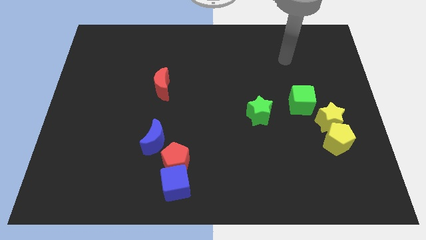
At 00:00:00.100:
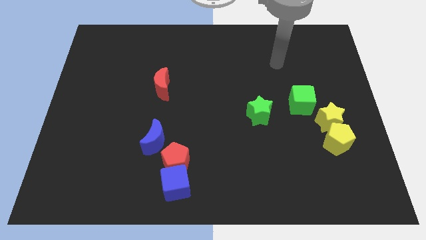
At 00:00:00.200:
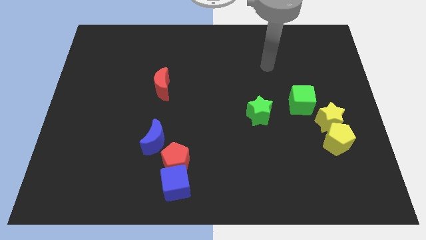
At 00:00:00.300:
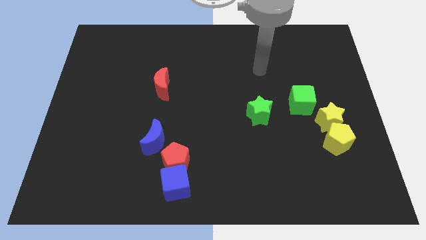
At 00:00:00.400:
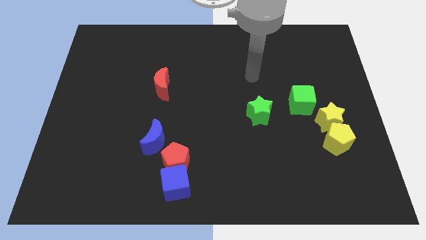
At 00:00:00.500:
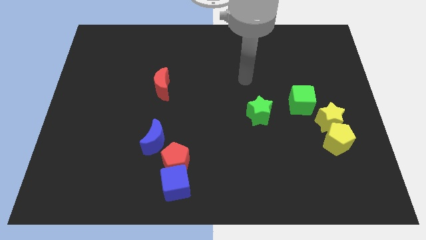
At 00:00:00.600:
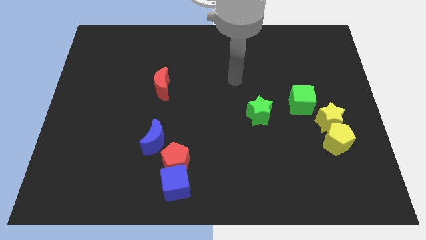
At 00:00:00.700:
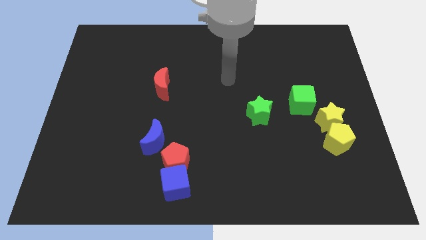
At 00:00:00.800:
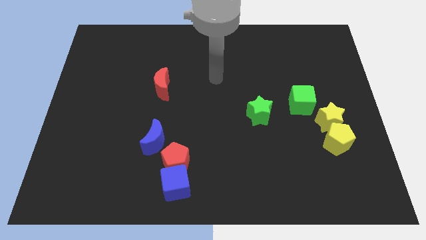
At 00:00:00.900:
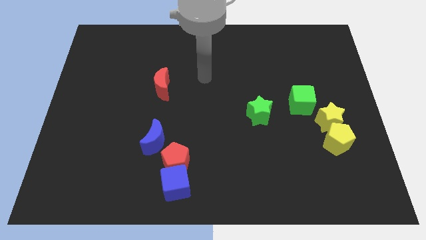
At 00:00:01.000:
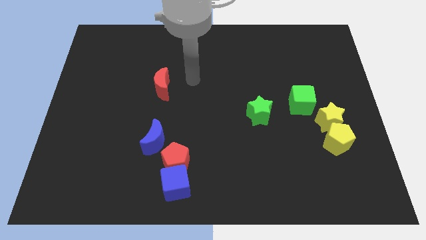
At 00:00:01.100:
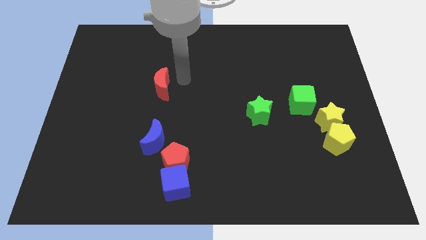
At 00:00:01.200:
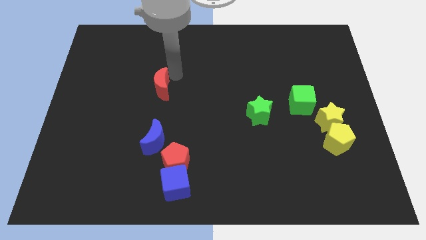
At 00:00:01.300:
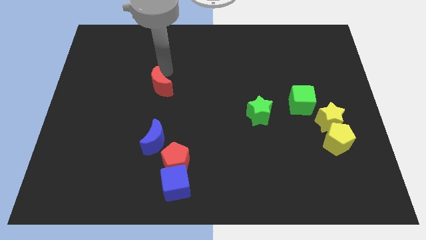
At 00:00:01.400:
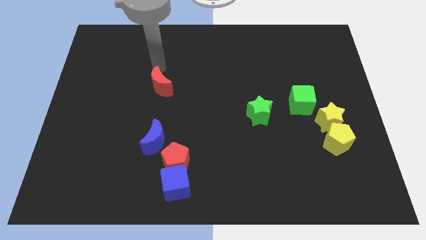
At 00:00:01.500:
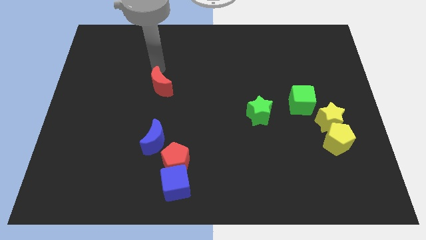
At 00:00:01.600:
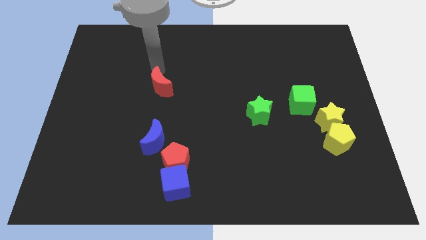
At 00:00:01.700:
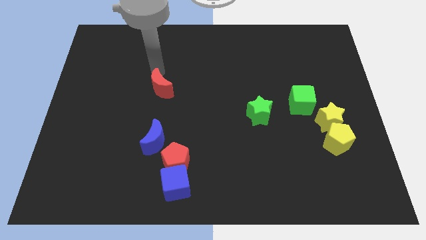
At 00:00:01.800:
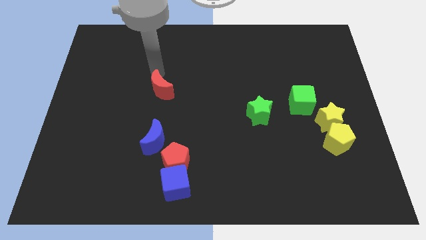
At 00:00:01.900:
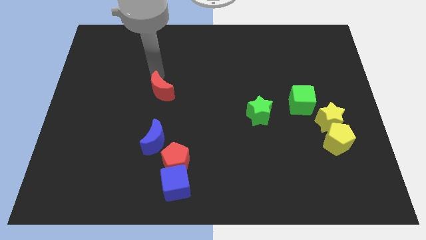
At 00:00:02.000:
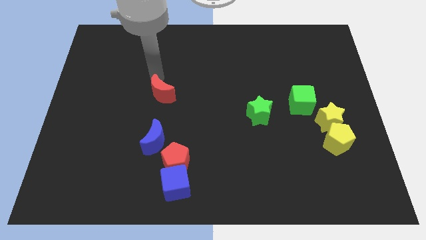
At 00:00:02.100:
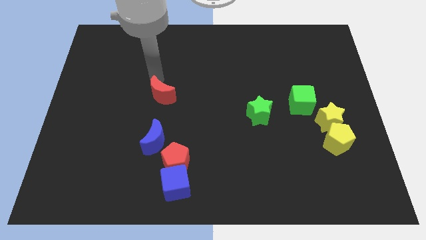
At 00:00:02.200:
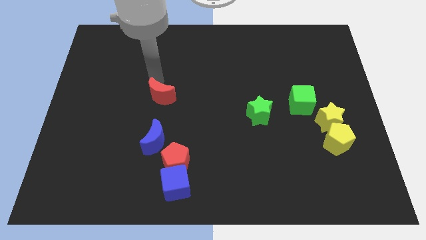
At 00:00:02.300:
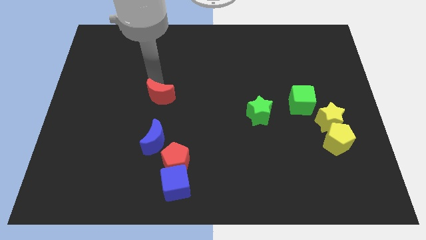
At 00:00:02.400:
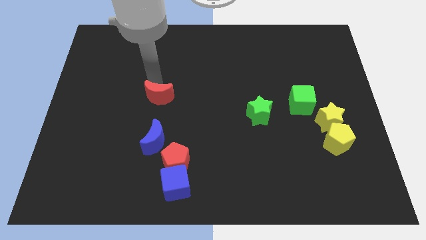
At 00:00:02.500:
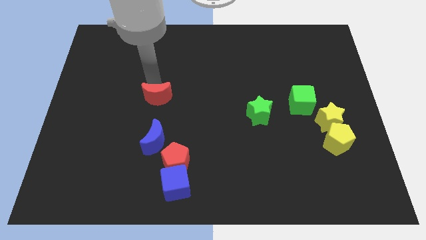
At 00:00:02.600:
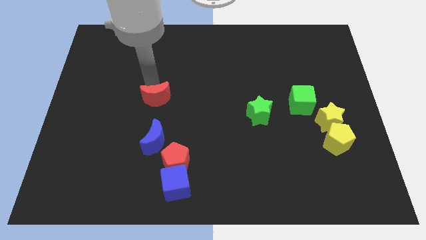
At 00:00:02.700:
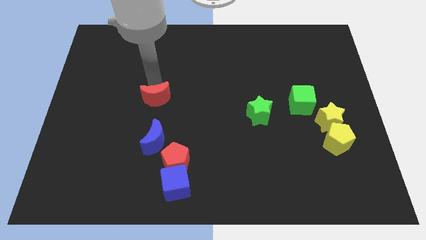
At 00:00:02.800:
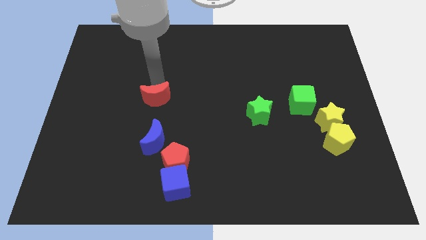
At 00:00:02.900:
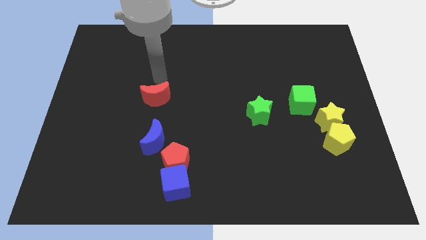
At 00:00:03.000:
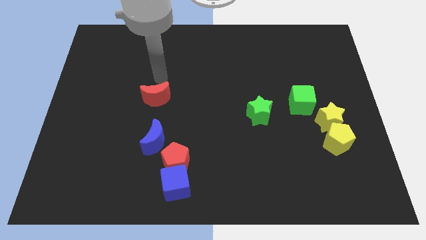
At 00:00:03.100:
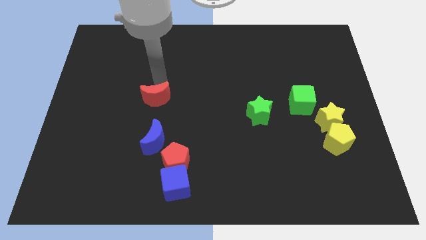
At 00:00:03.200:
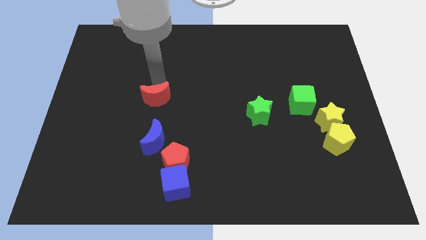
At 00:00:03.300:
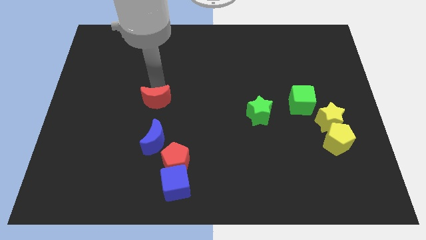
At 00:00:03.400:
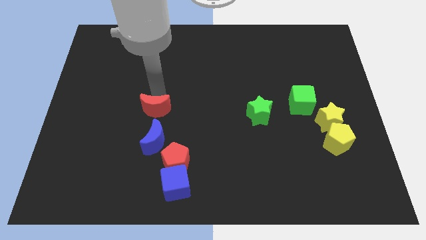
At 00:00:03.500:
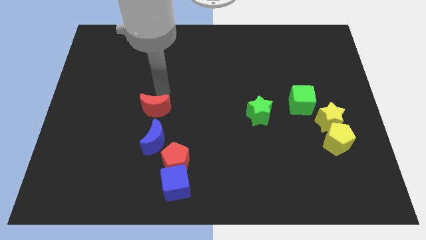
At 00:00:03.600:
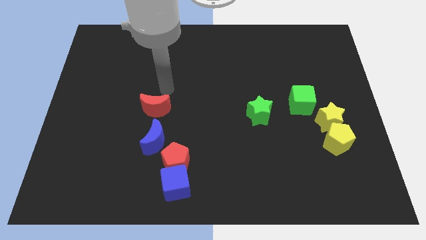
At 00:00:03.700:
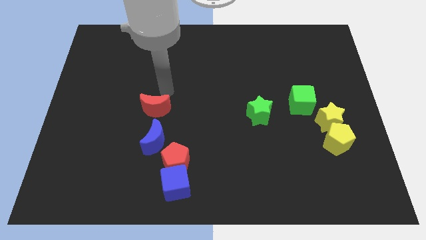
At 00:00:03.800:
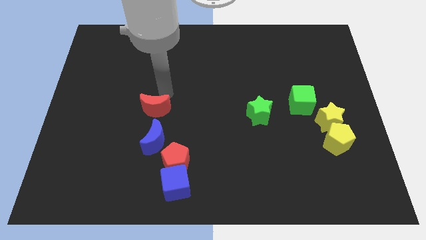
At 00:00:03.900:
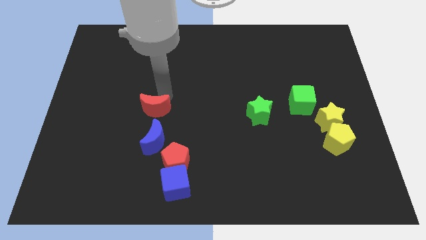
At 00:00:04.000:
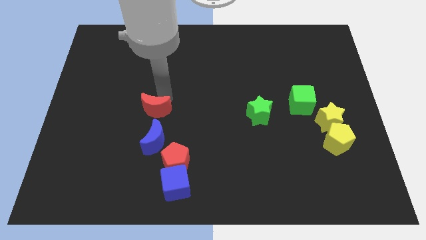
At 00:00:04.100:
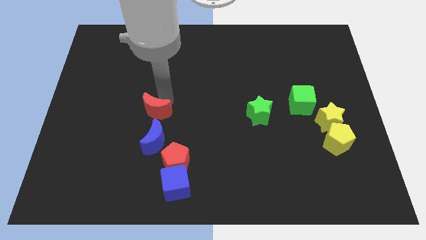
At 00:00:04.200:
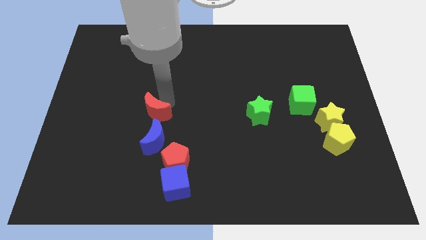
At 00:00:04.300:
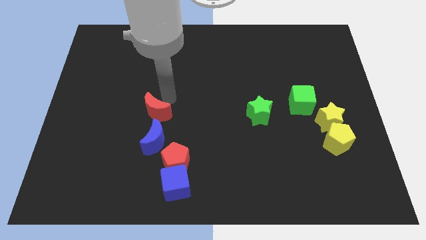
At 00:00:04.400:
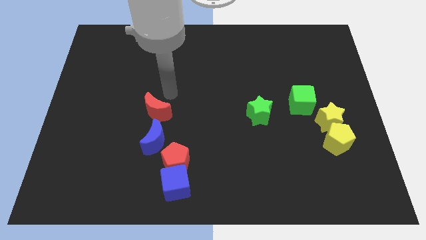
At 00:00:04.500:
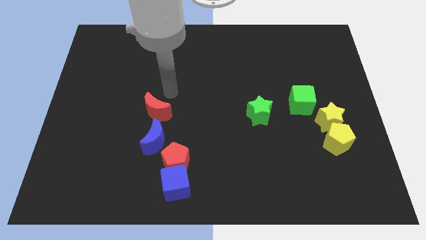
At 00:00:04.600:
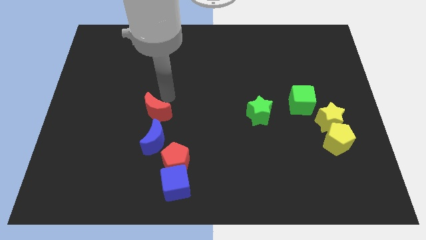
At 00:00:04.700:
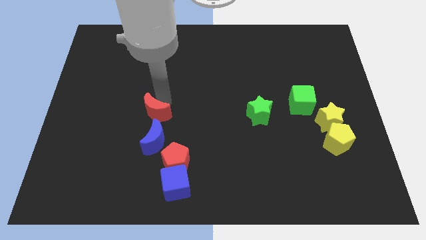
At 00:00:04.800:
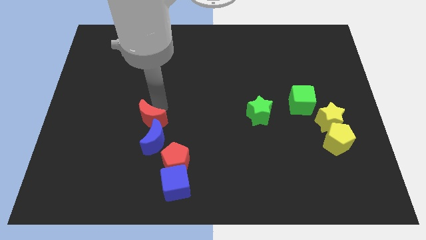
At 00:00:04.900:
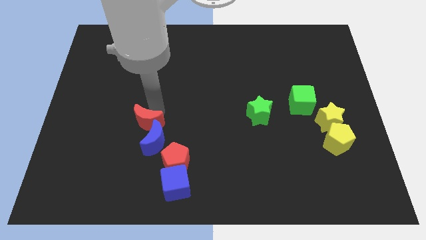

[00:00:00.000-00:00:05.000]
push the red moon to the top left side of the red pentagon

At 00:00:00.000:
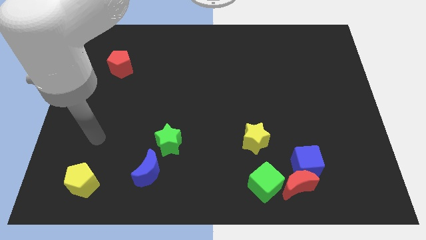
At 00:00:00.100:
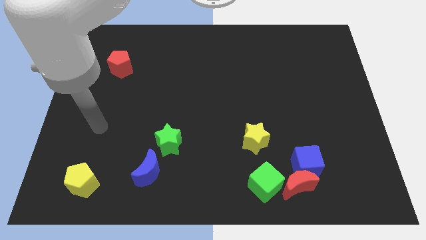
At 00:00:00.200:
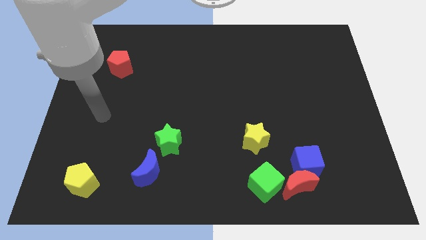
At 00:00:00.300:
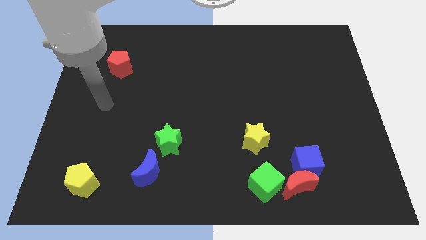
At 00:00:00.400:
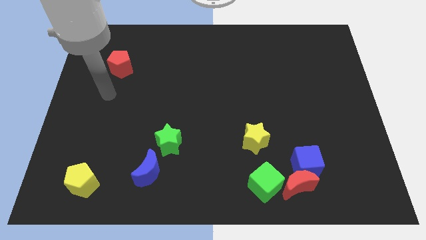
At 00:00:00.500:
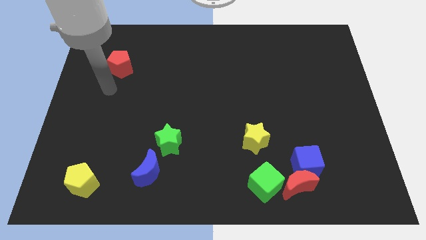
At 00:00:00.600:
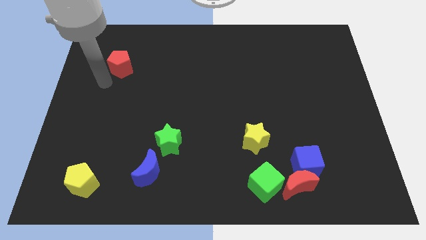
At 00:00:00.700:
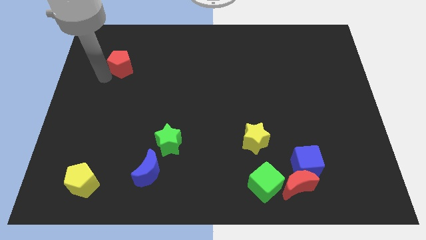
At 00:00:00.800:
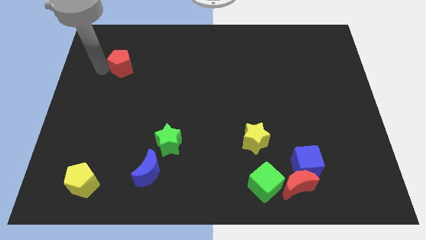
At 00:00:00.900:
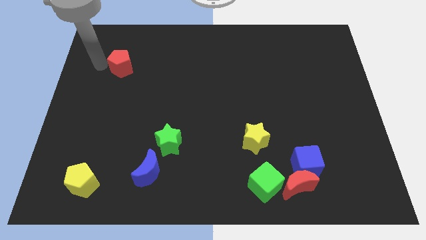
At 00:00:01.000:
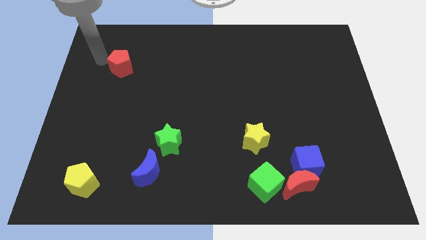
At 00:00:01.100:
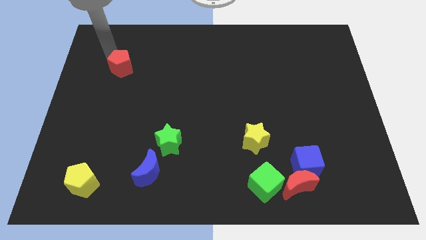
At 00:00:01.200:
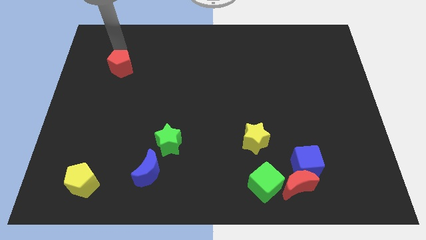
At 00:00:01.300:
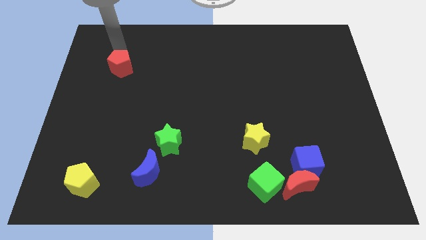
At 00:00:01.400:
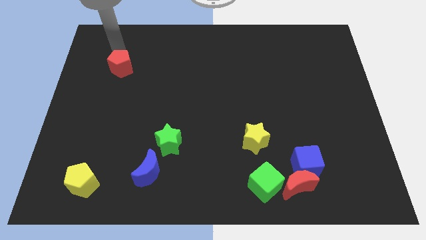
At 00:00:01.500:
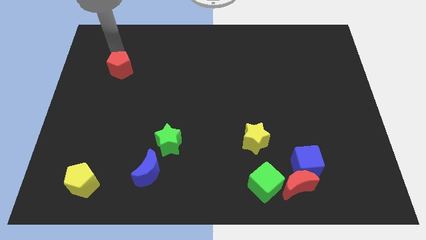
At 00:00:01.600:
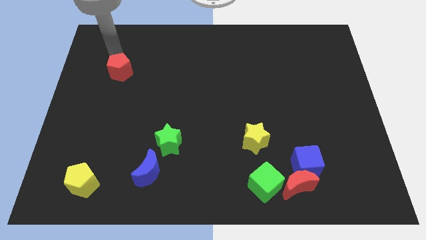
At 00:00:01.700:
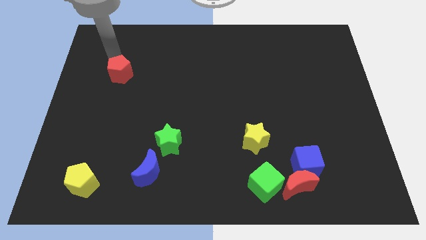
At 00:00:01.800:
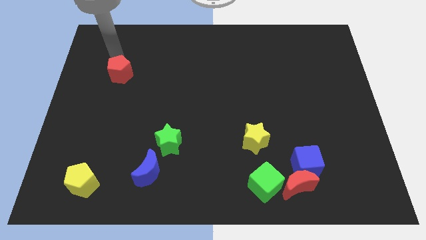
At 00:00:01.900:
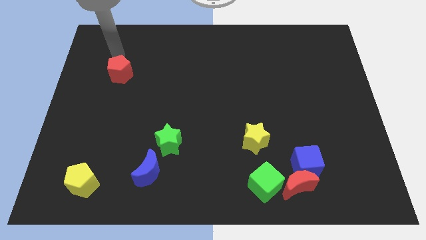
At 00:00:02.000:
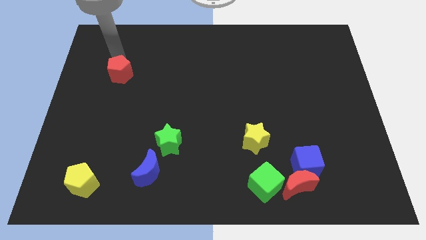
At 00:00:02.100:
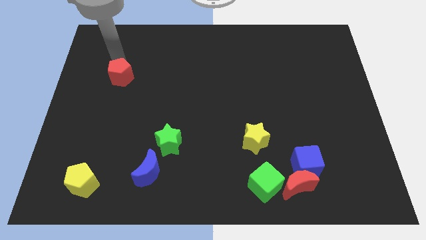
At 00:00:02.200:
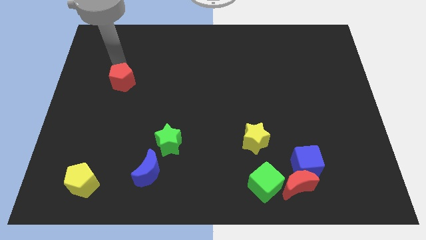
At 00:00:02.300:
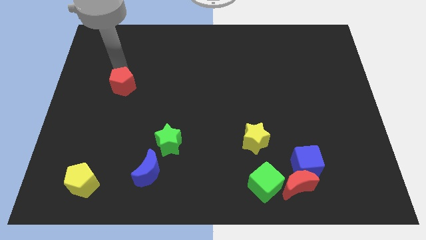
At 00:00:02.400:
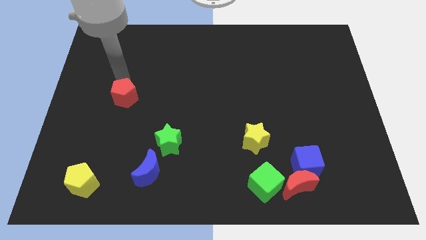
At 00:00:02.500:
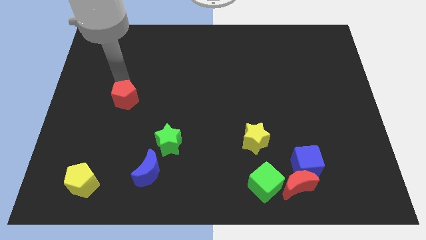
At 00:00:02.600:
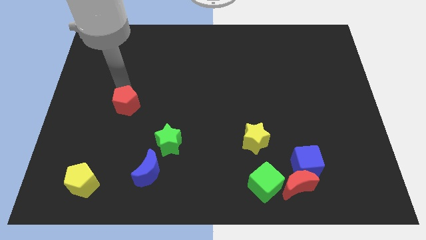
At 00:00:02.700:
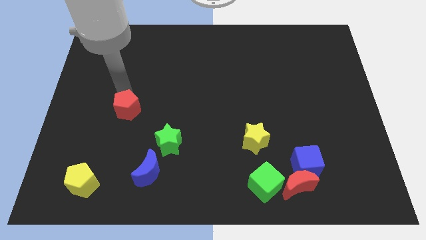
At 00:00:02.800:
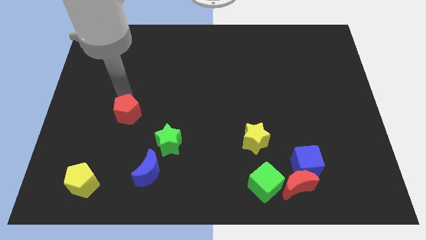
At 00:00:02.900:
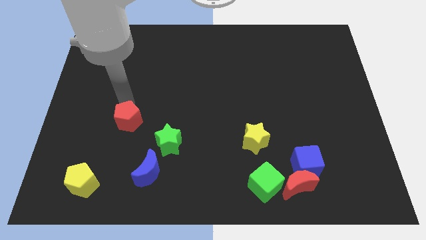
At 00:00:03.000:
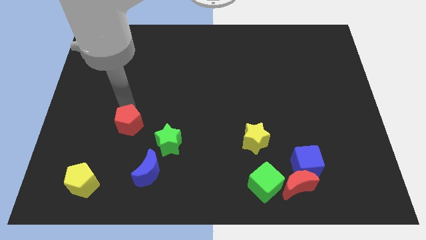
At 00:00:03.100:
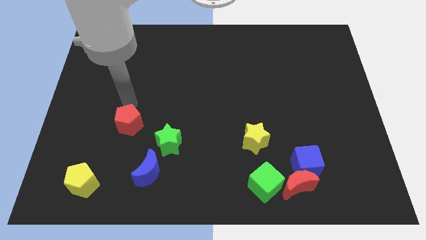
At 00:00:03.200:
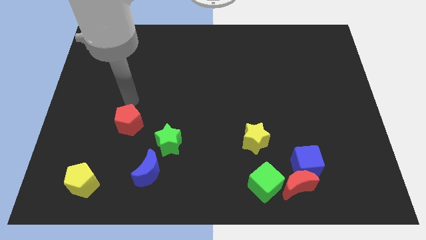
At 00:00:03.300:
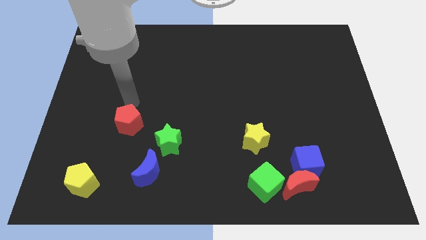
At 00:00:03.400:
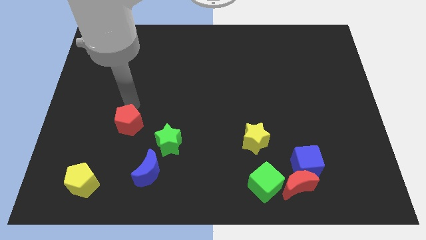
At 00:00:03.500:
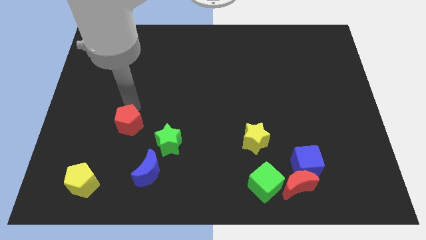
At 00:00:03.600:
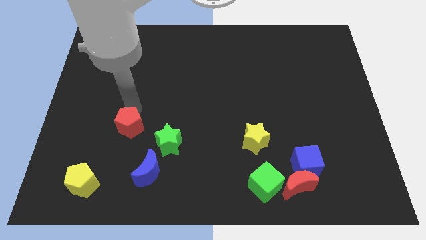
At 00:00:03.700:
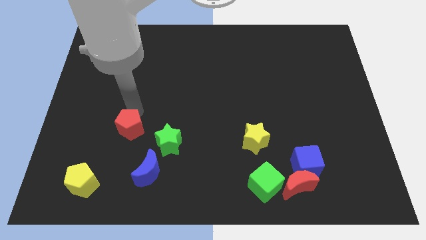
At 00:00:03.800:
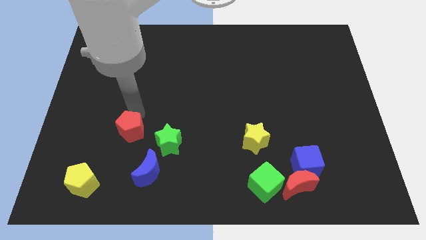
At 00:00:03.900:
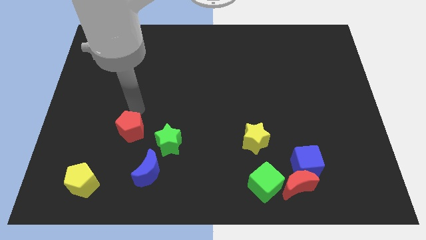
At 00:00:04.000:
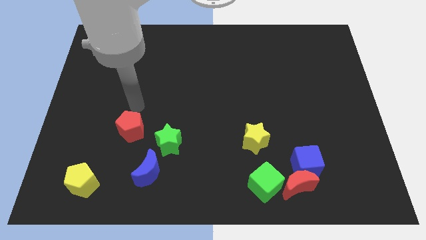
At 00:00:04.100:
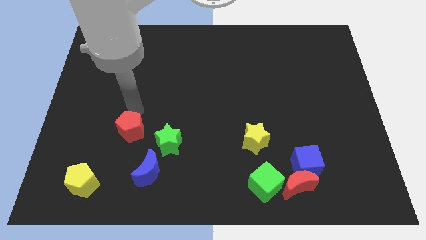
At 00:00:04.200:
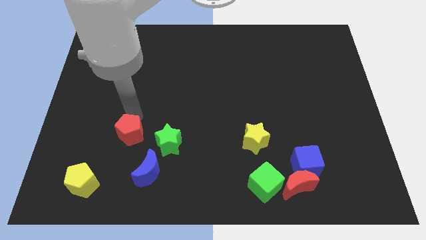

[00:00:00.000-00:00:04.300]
push the red pentagon to the top left side of the blue moon
